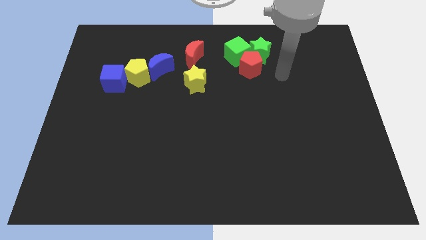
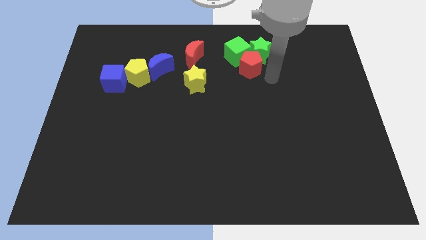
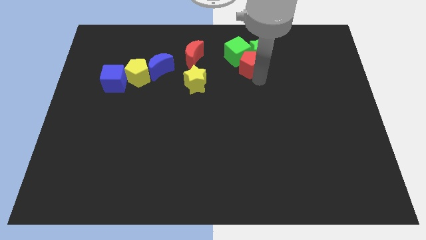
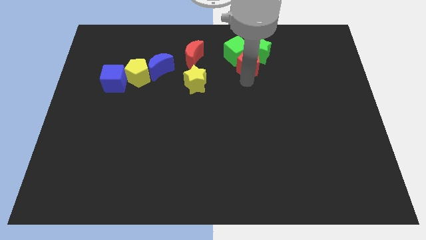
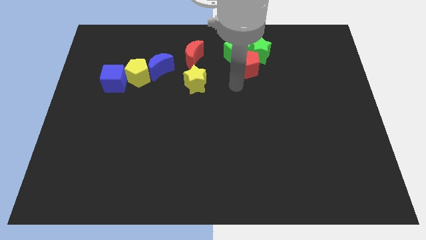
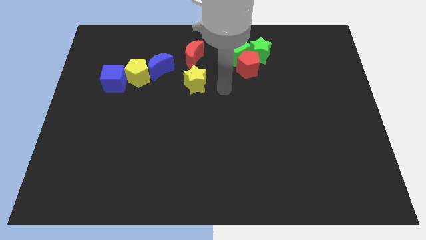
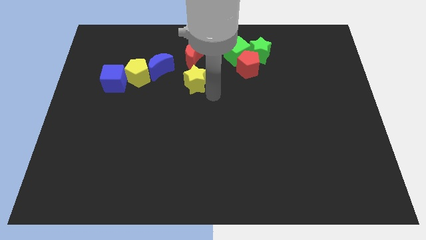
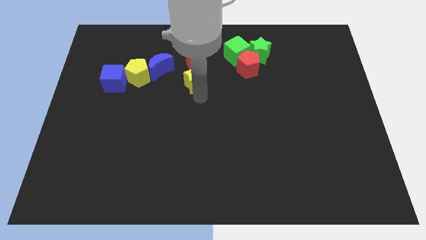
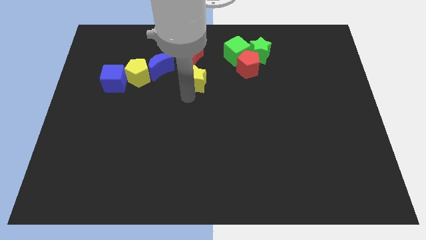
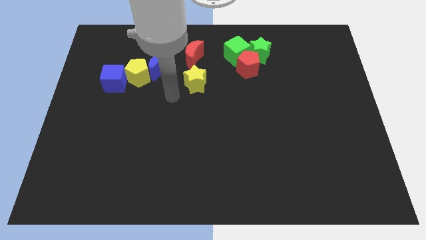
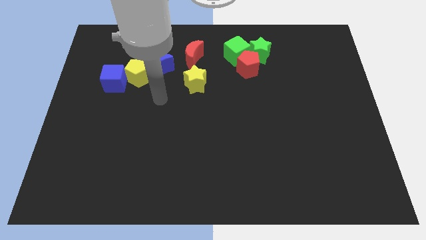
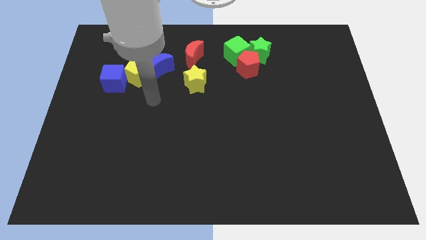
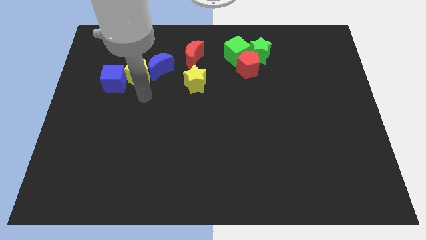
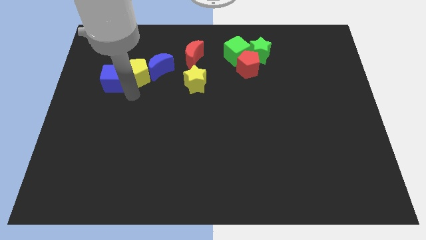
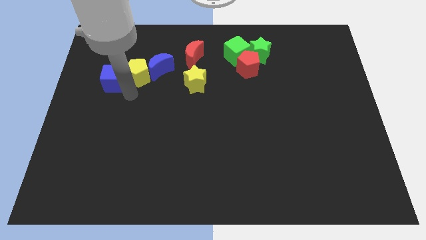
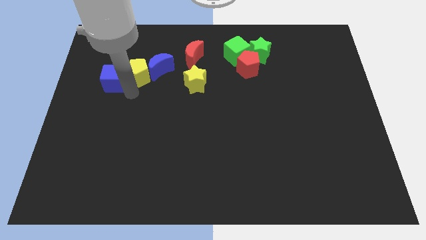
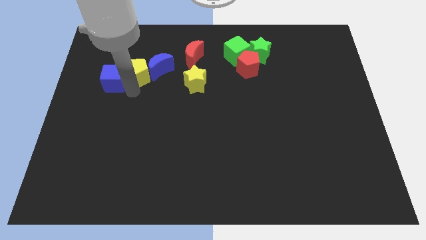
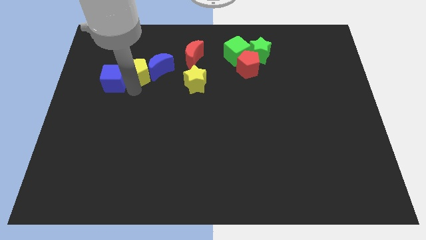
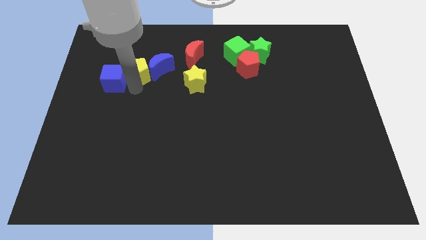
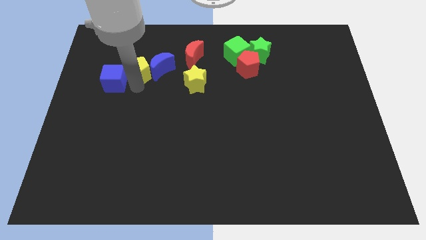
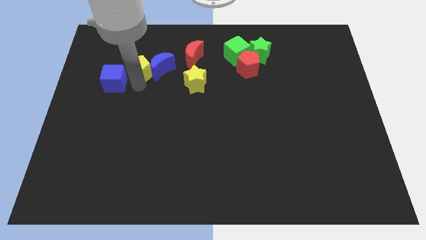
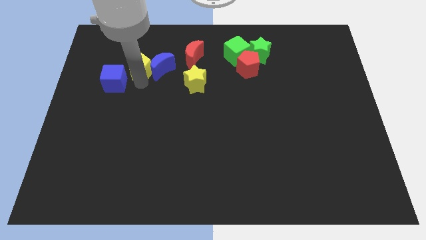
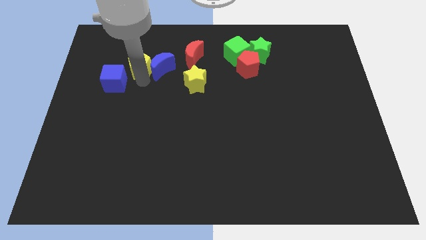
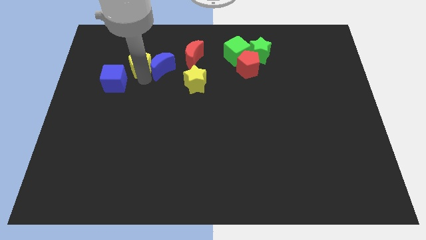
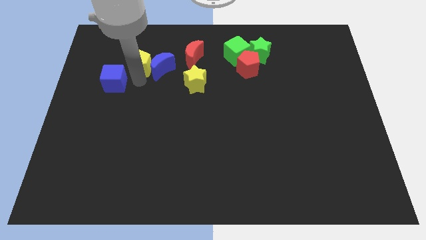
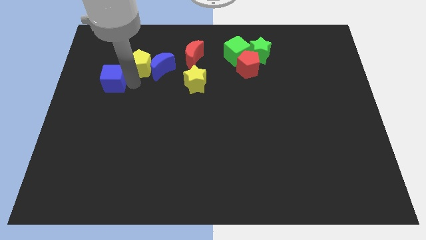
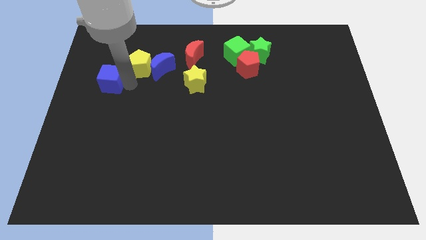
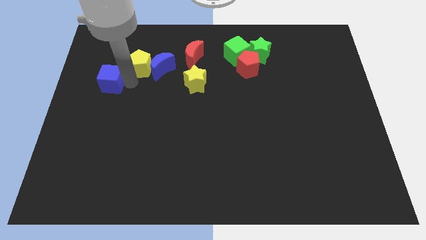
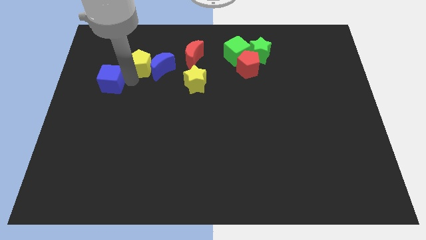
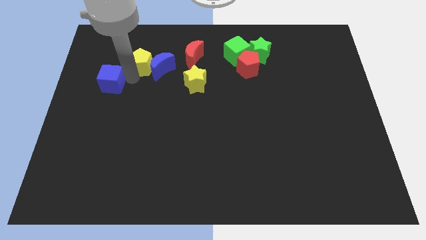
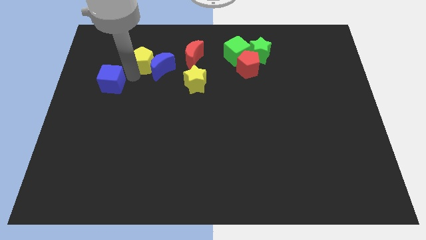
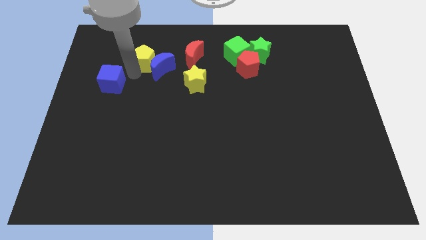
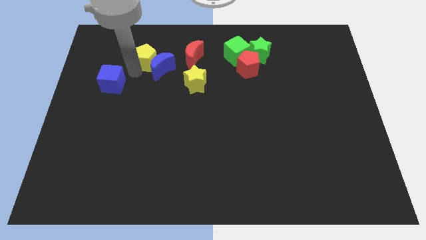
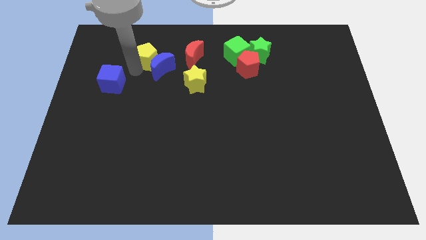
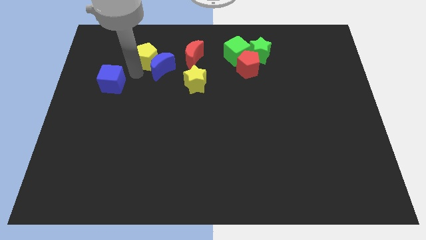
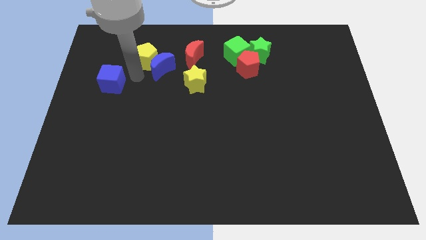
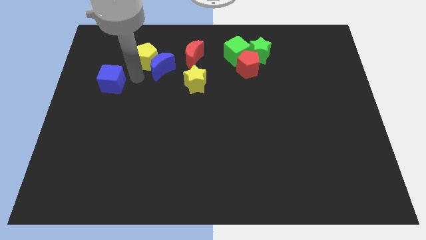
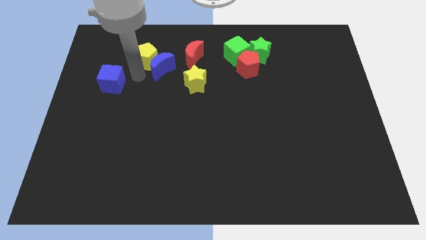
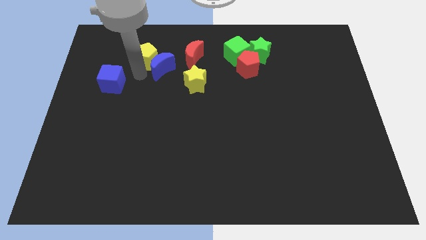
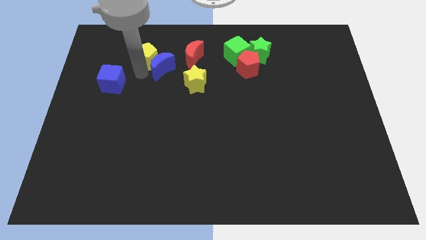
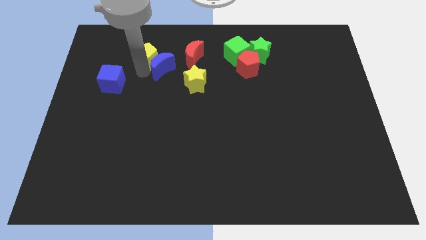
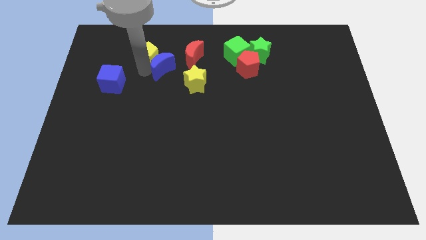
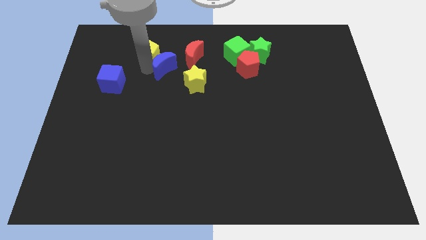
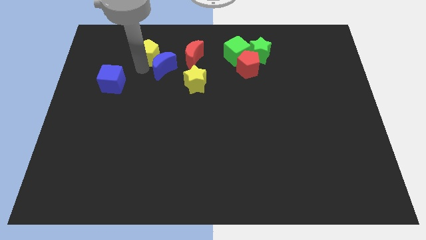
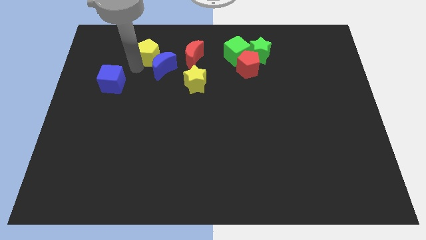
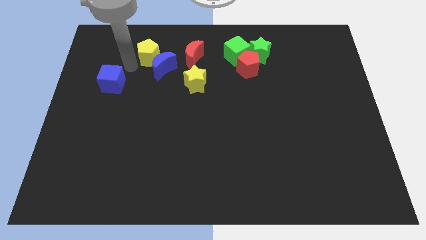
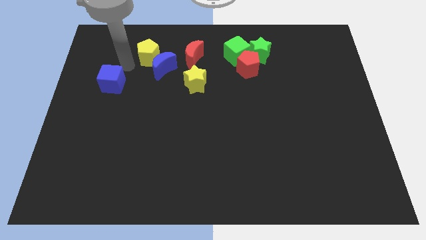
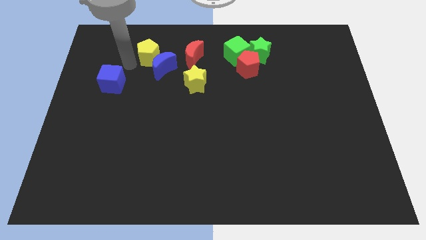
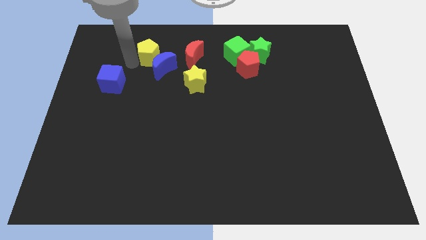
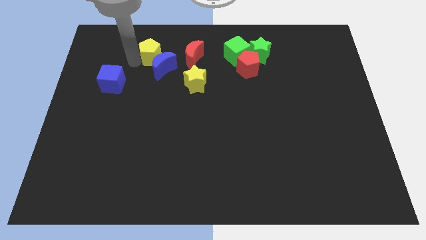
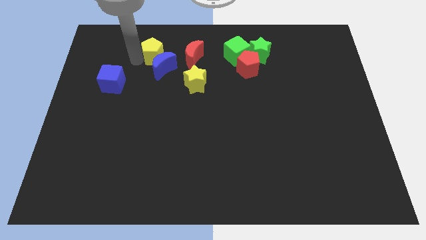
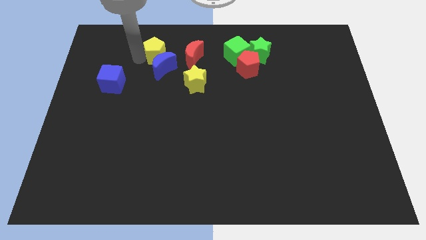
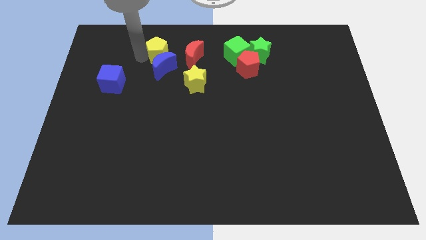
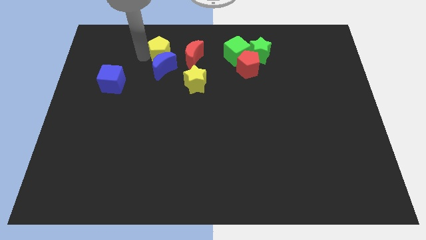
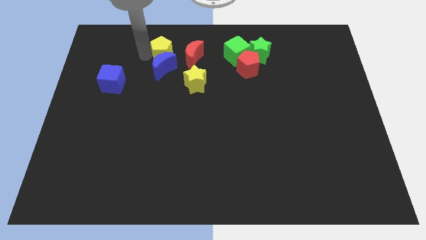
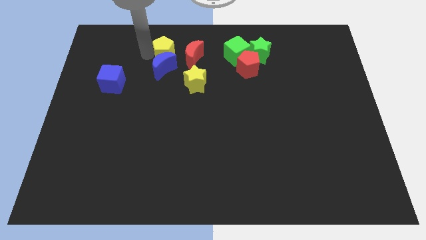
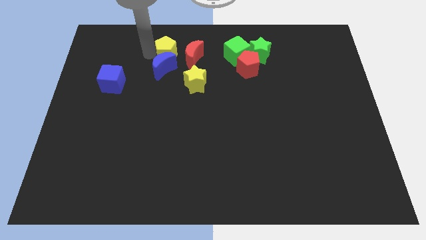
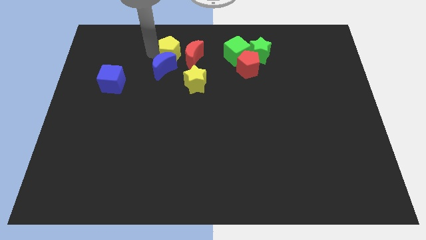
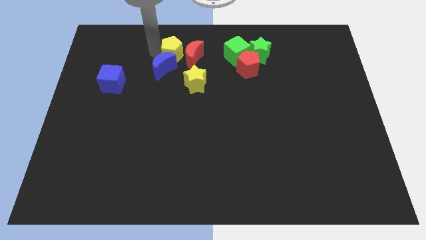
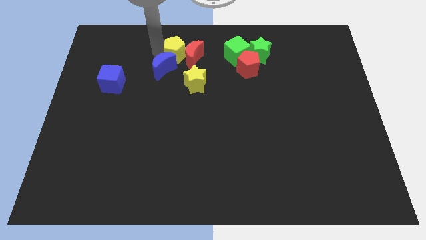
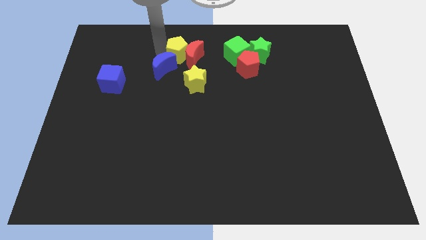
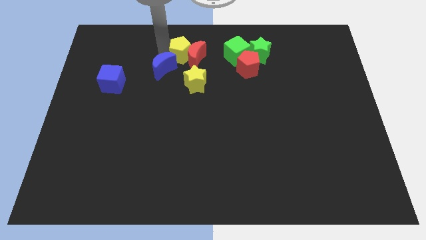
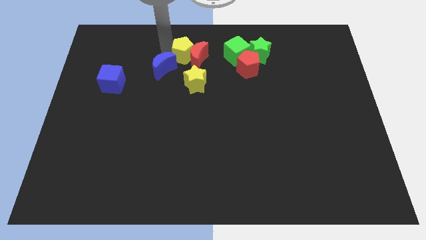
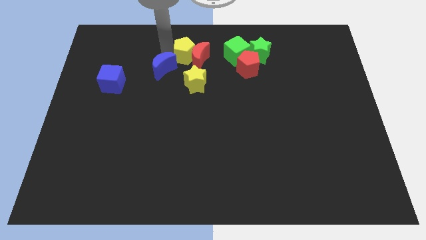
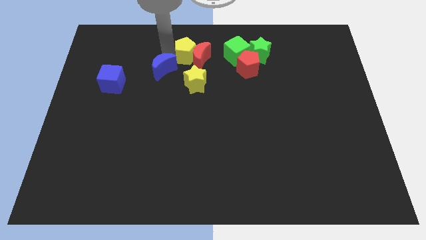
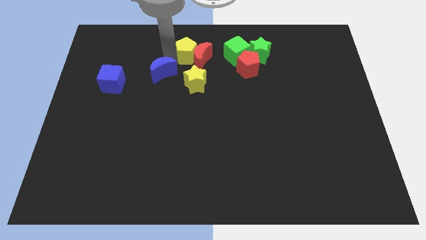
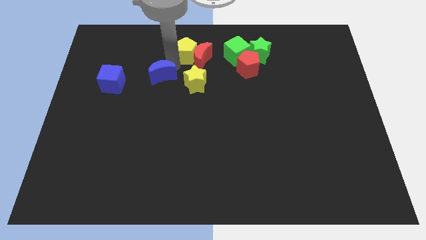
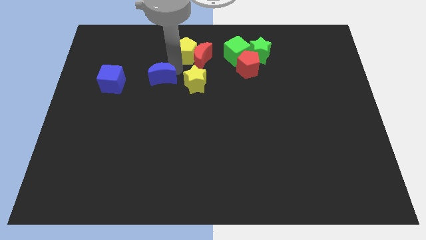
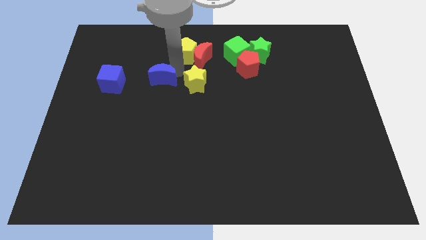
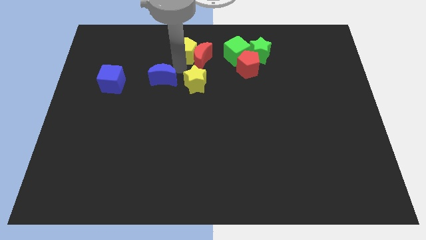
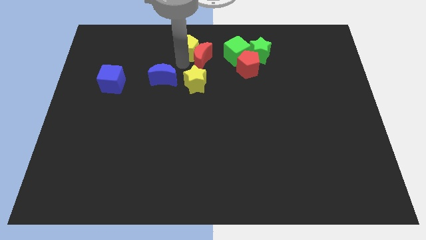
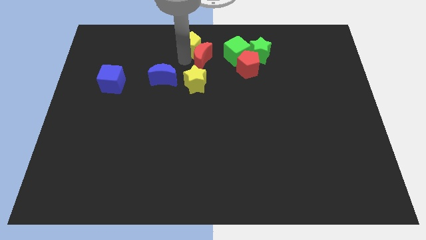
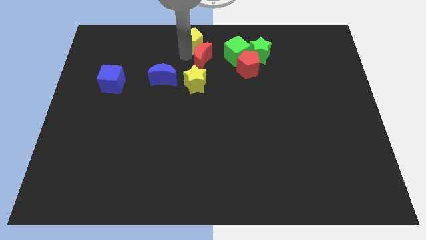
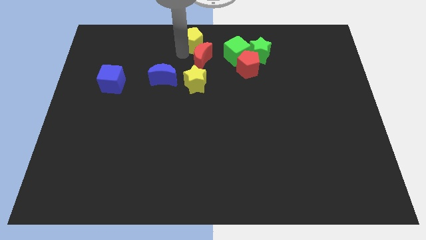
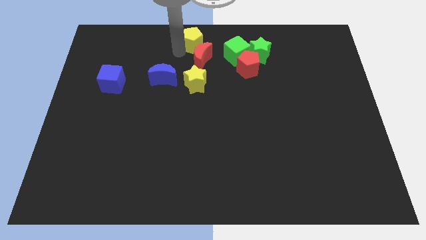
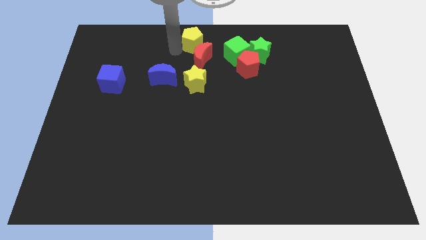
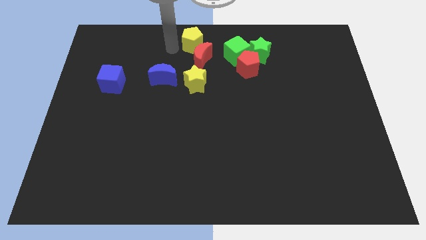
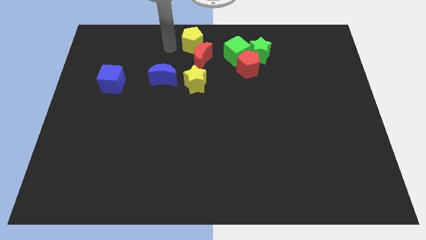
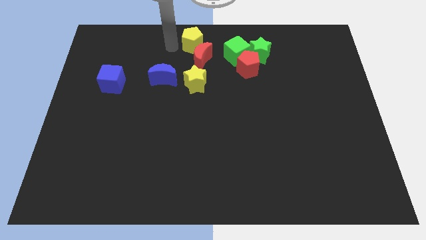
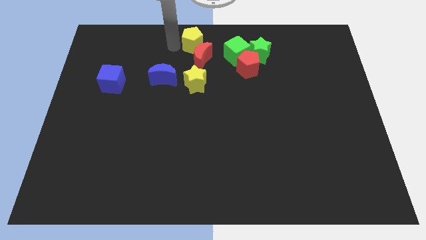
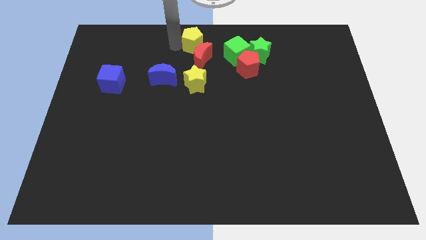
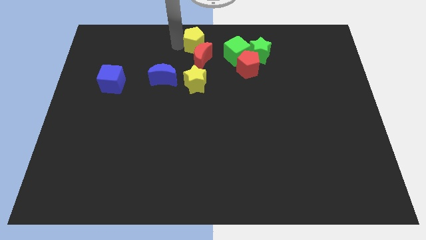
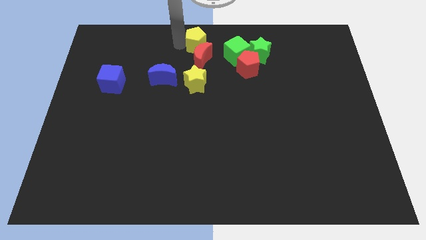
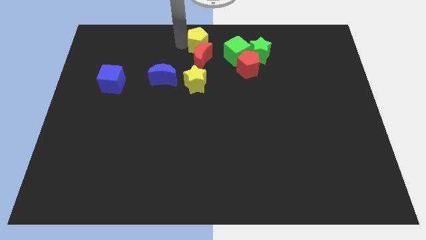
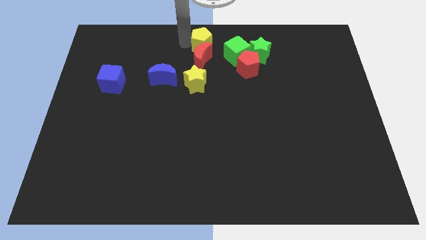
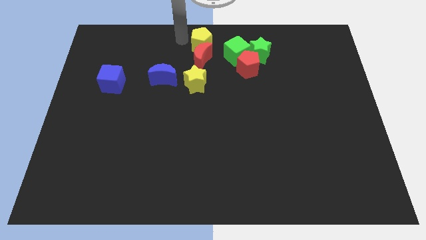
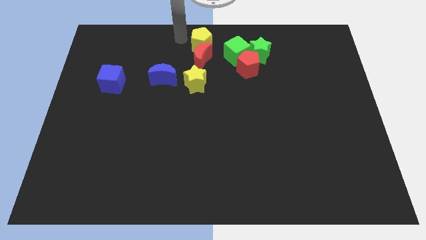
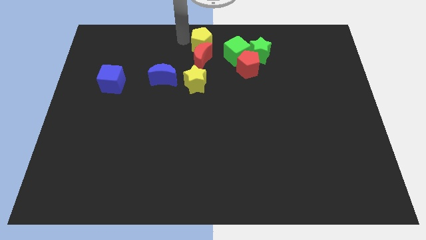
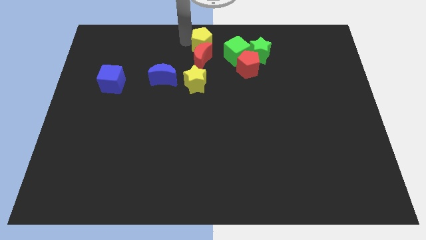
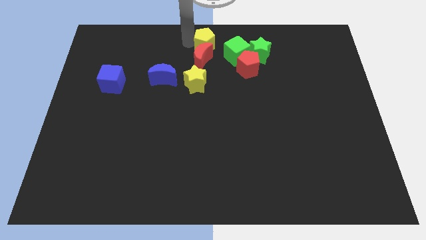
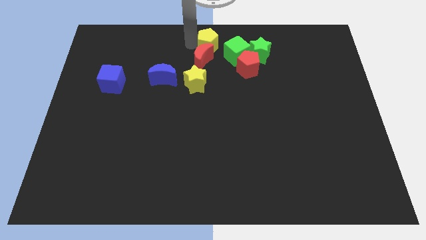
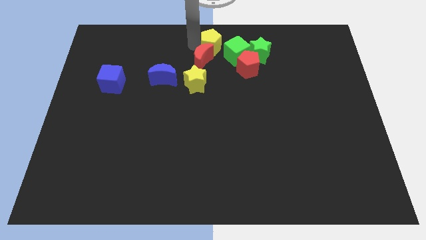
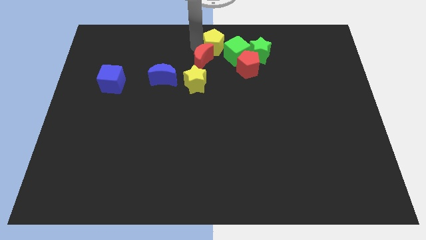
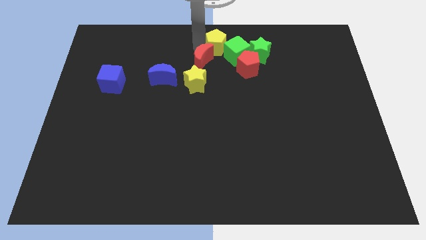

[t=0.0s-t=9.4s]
slide the yellow pentagon close to the green cube
